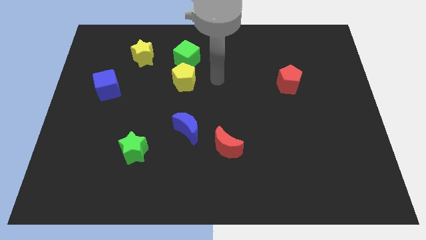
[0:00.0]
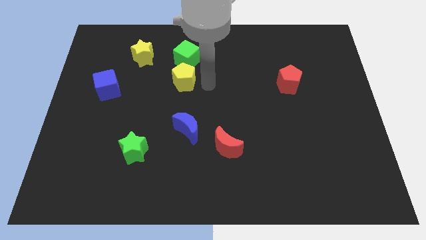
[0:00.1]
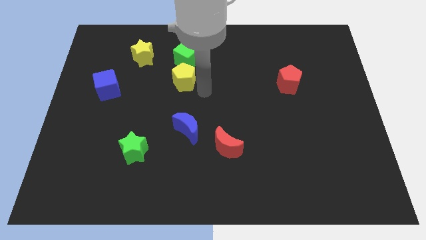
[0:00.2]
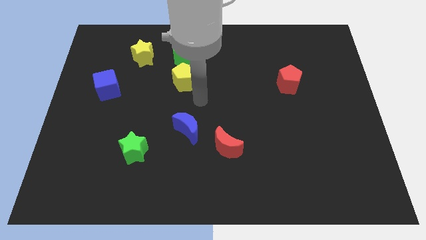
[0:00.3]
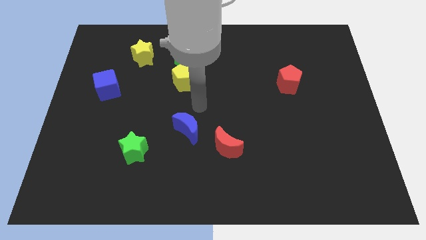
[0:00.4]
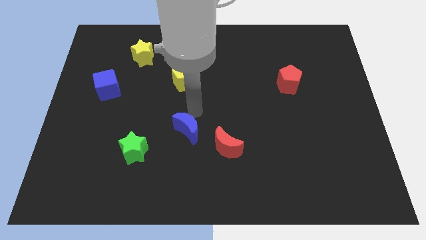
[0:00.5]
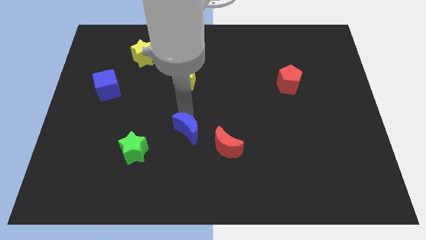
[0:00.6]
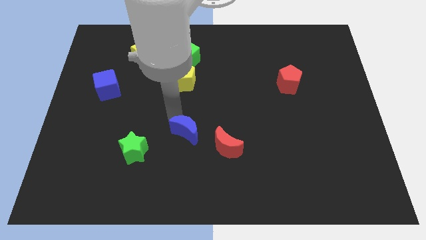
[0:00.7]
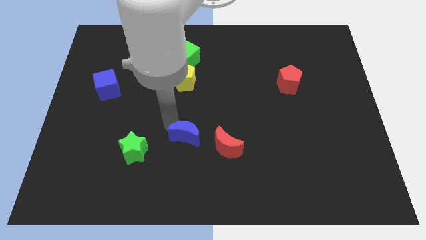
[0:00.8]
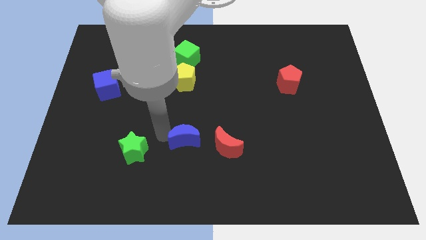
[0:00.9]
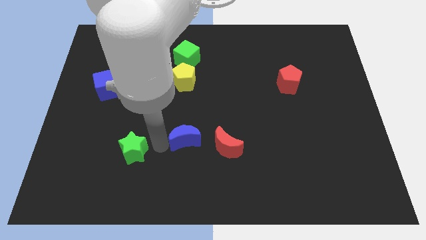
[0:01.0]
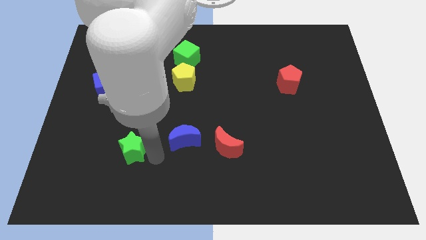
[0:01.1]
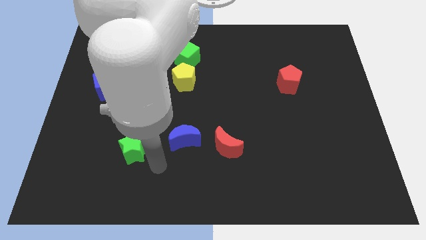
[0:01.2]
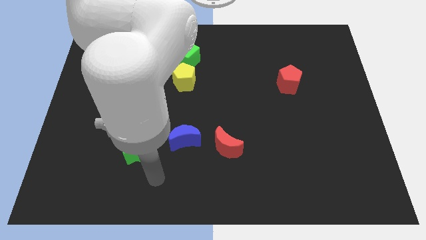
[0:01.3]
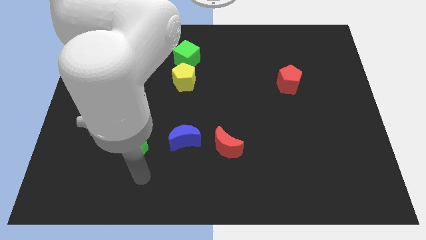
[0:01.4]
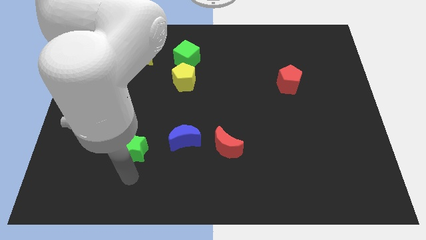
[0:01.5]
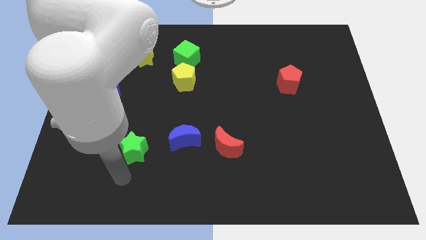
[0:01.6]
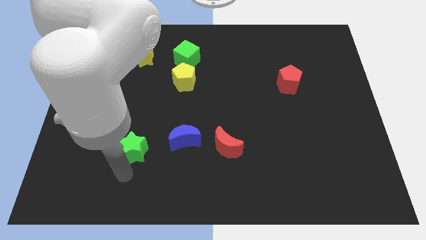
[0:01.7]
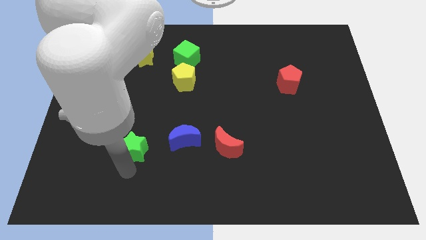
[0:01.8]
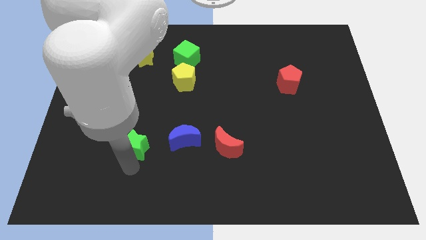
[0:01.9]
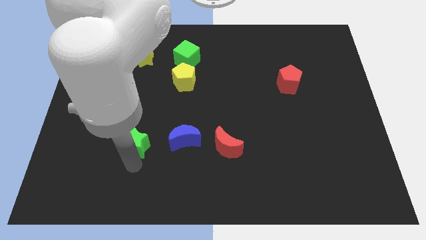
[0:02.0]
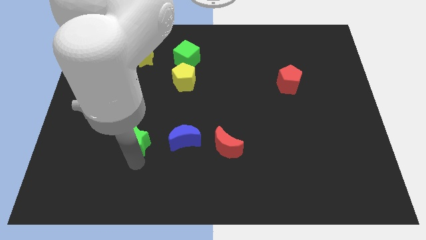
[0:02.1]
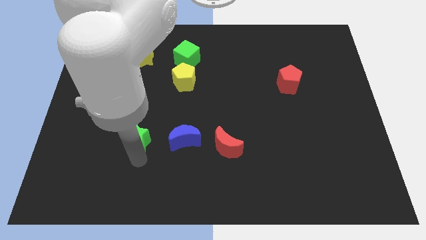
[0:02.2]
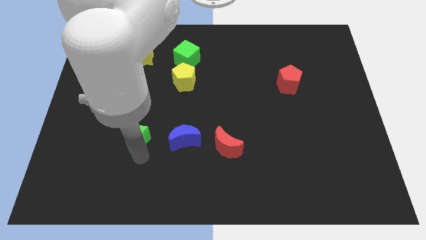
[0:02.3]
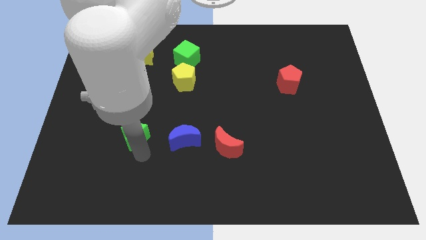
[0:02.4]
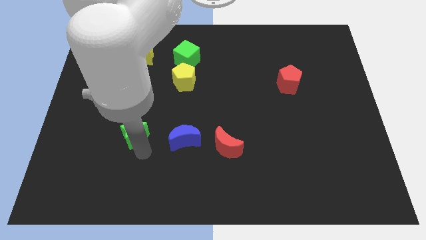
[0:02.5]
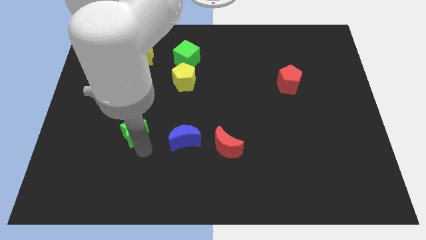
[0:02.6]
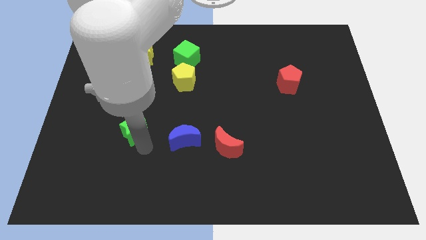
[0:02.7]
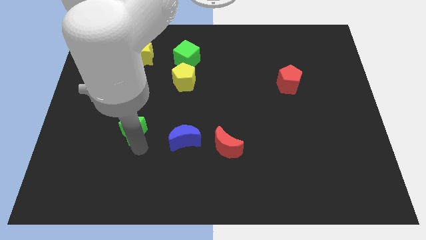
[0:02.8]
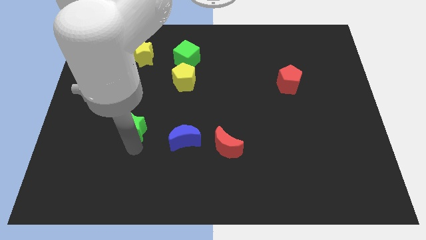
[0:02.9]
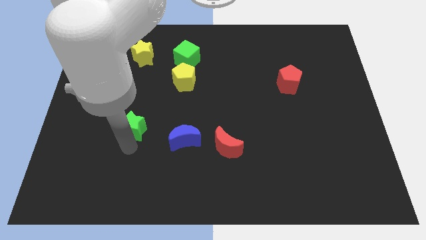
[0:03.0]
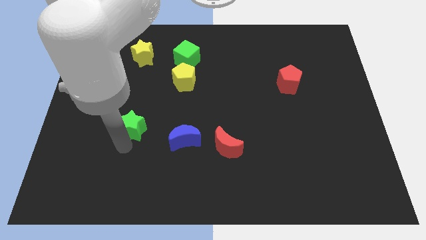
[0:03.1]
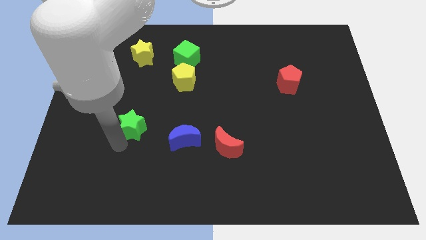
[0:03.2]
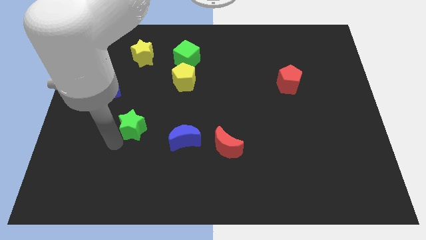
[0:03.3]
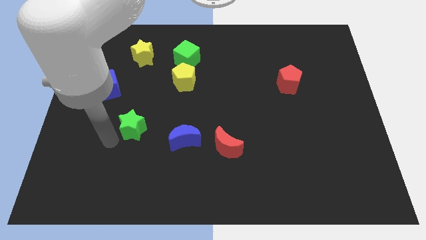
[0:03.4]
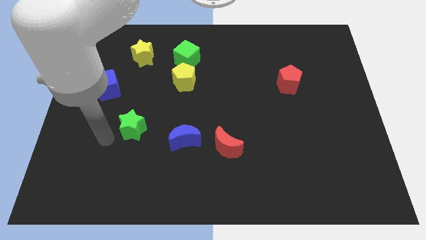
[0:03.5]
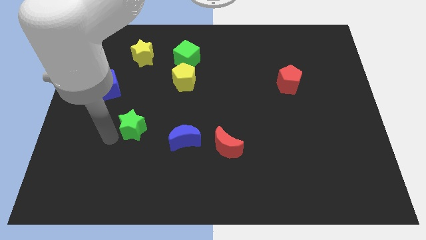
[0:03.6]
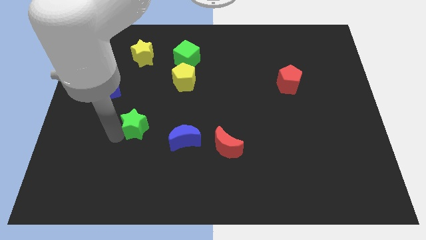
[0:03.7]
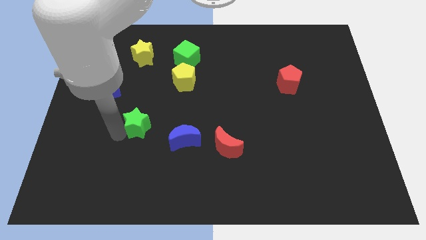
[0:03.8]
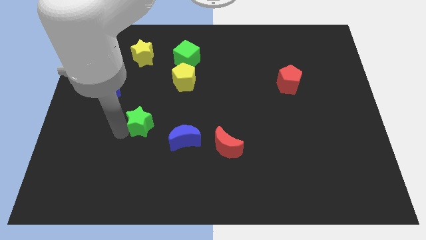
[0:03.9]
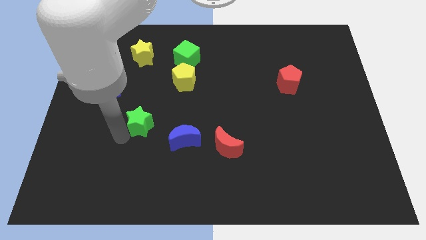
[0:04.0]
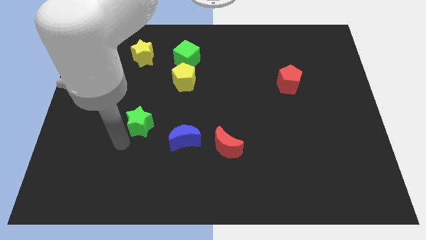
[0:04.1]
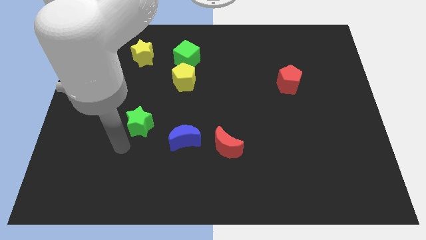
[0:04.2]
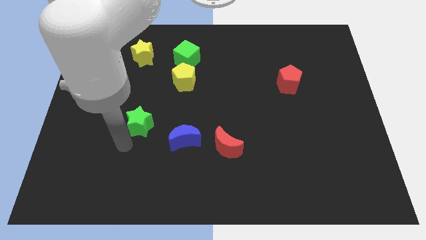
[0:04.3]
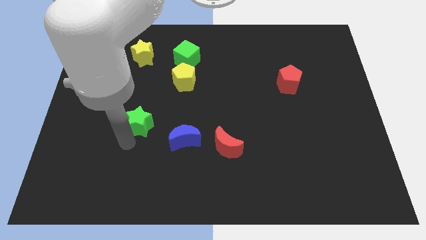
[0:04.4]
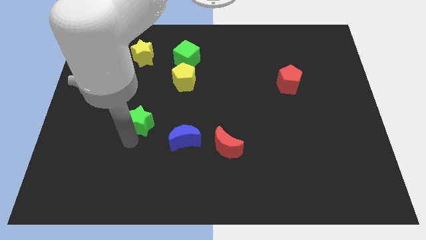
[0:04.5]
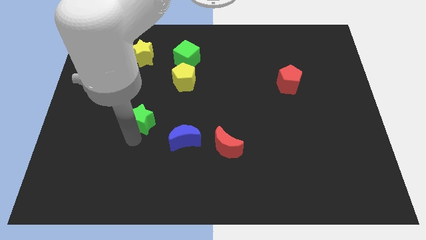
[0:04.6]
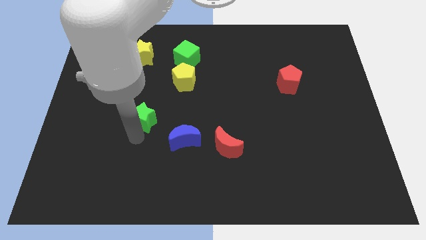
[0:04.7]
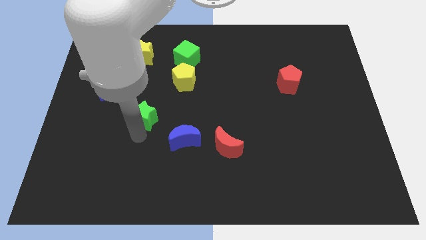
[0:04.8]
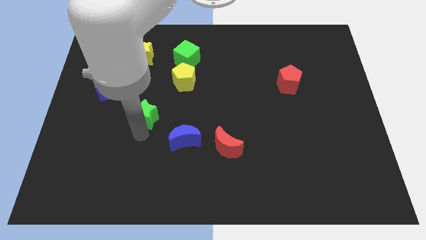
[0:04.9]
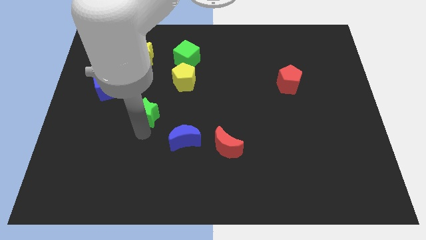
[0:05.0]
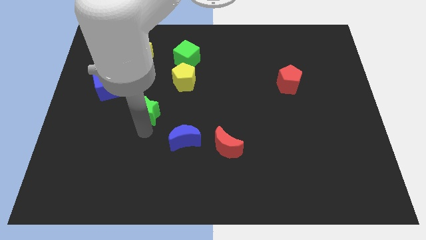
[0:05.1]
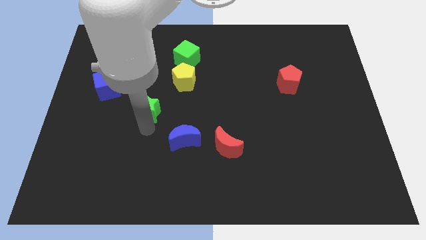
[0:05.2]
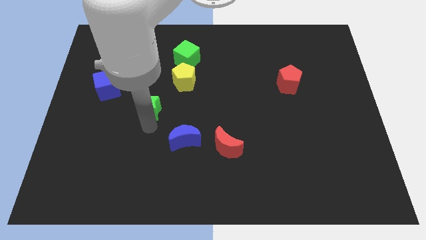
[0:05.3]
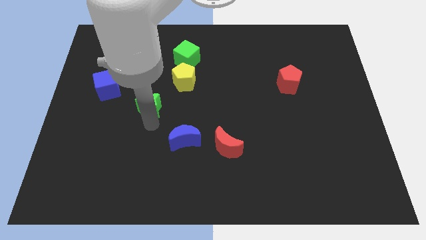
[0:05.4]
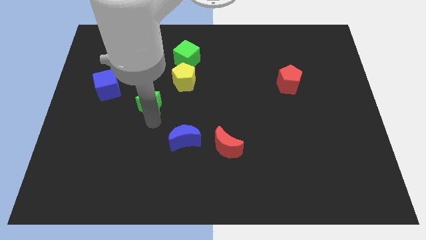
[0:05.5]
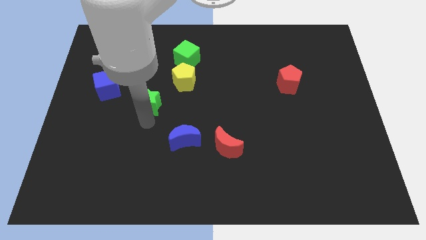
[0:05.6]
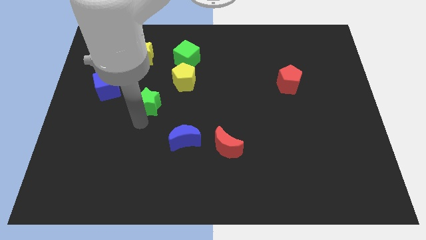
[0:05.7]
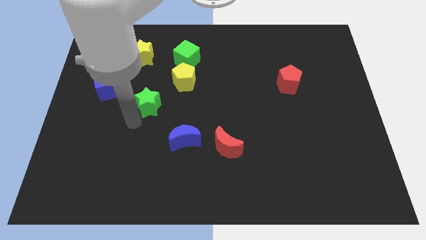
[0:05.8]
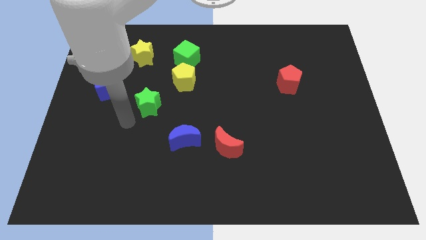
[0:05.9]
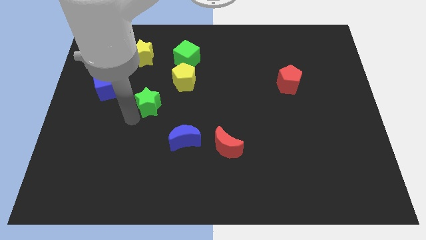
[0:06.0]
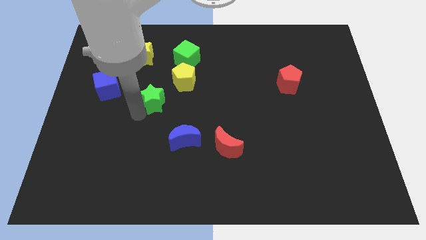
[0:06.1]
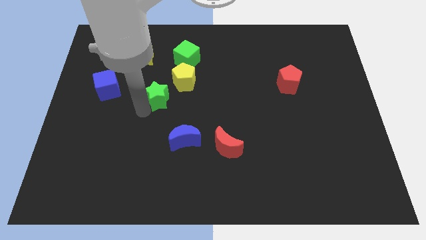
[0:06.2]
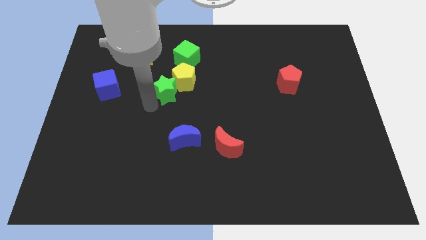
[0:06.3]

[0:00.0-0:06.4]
move the green star to the yellow pentagon
